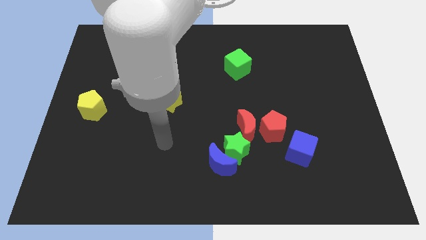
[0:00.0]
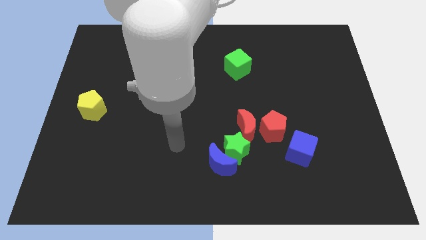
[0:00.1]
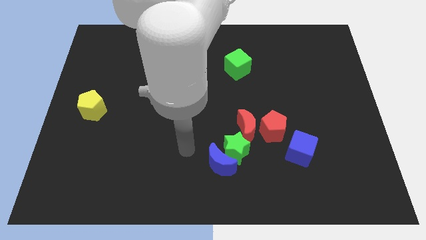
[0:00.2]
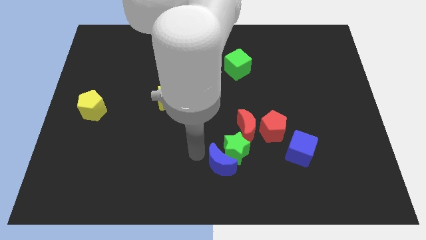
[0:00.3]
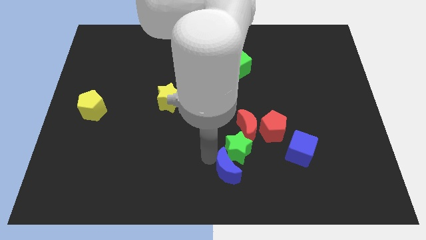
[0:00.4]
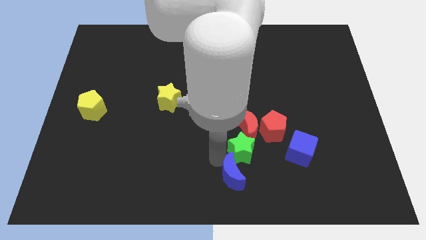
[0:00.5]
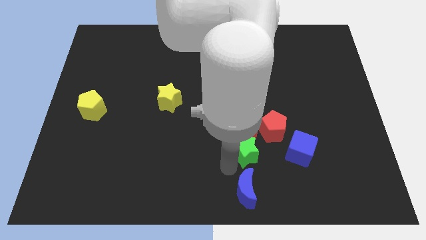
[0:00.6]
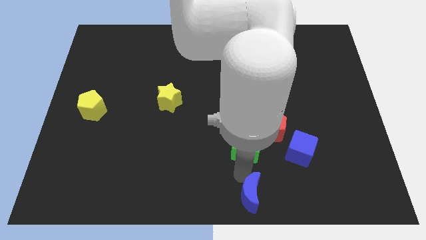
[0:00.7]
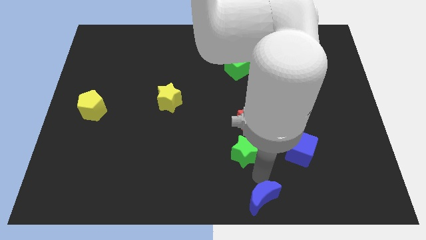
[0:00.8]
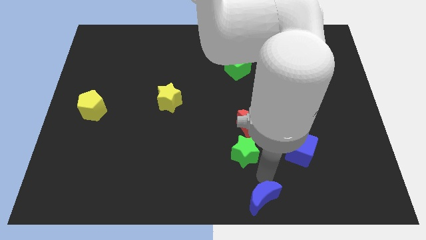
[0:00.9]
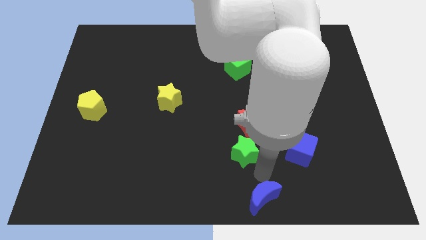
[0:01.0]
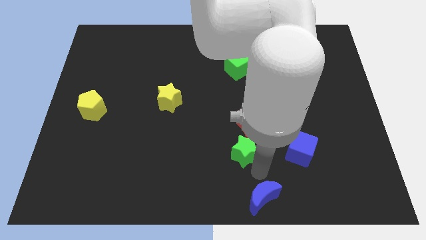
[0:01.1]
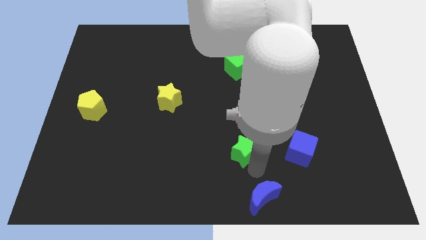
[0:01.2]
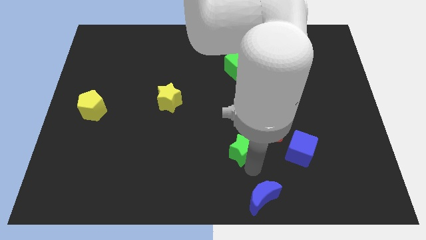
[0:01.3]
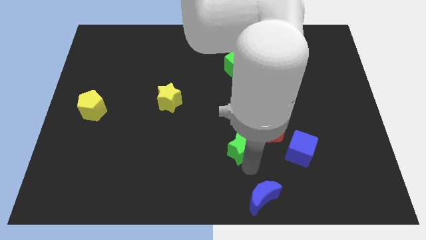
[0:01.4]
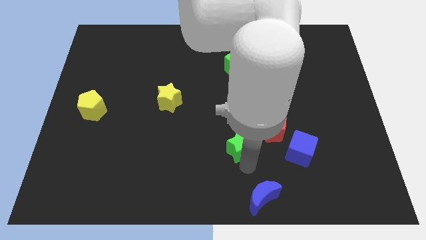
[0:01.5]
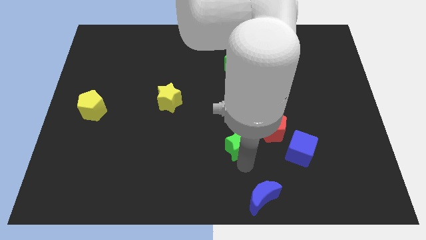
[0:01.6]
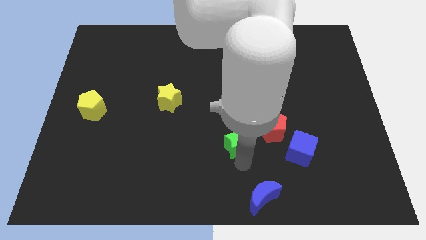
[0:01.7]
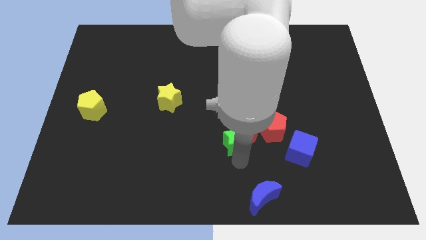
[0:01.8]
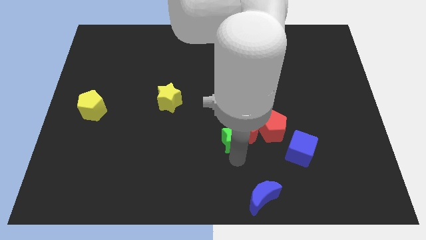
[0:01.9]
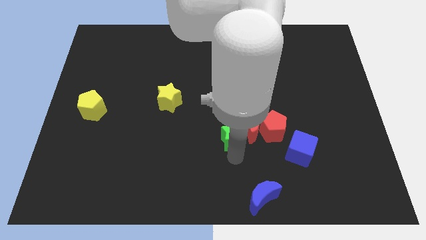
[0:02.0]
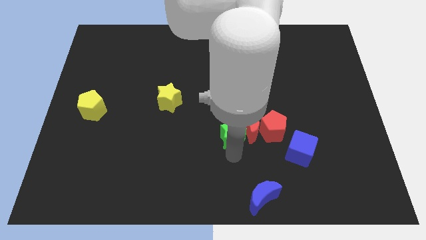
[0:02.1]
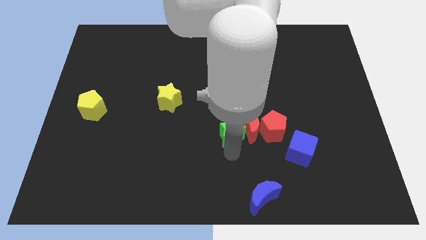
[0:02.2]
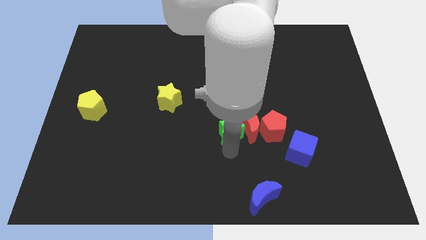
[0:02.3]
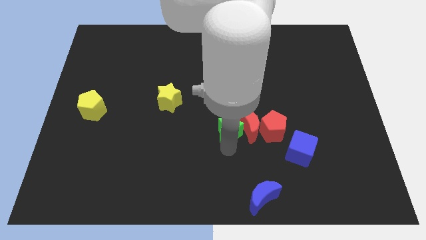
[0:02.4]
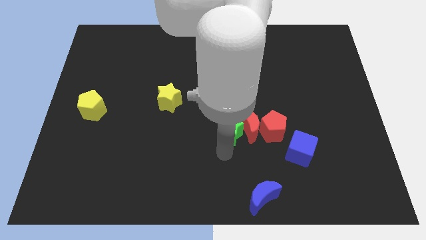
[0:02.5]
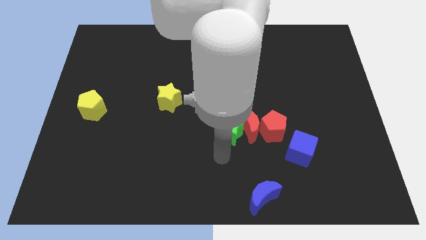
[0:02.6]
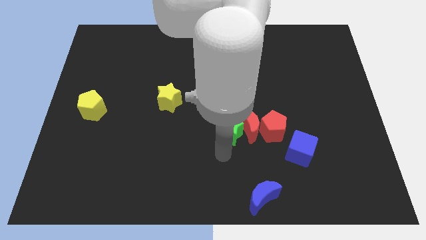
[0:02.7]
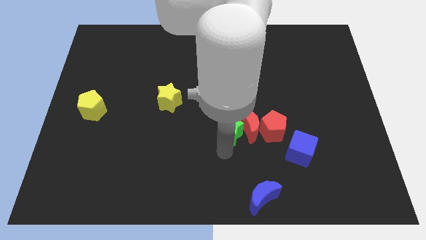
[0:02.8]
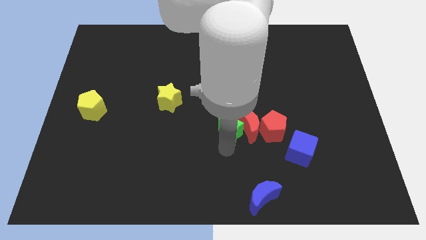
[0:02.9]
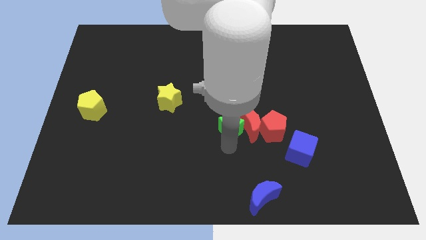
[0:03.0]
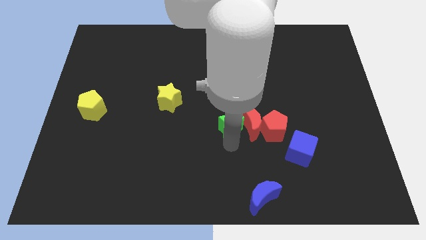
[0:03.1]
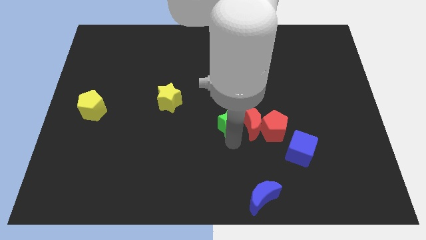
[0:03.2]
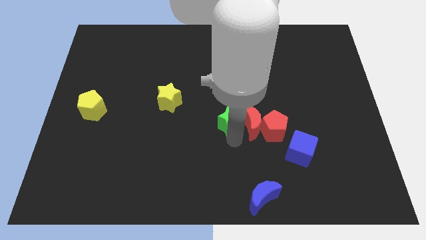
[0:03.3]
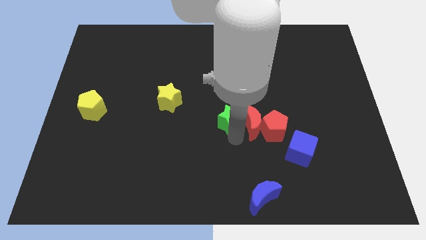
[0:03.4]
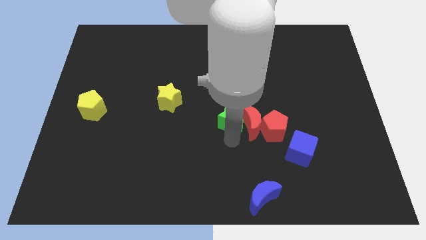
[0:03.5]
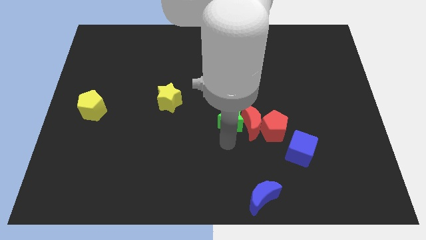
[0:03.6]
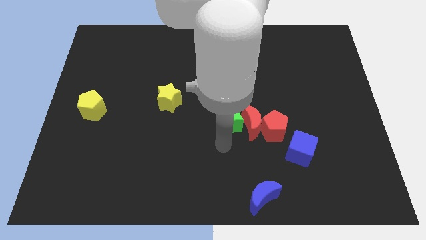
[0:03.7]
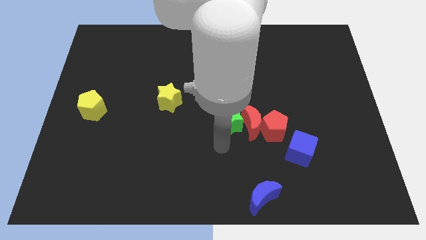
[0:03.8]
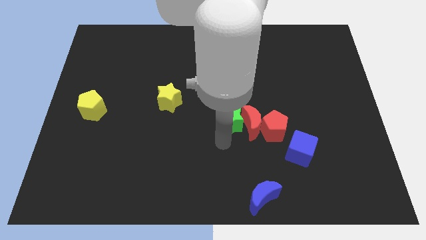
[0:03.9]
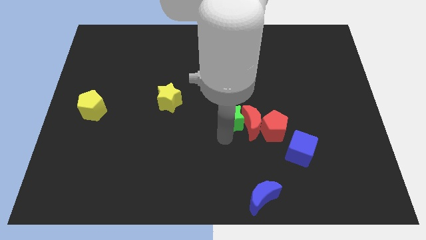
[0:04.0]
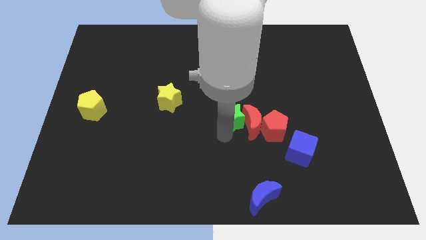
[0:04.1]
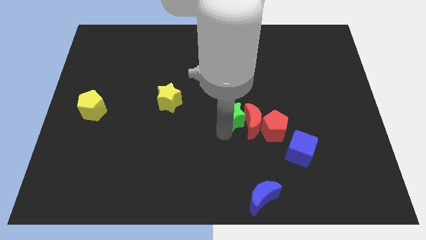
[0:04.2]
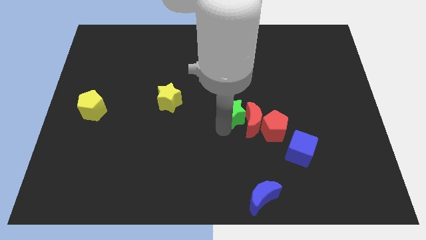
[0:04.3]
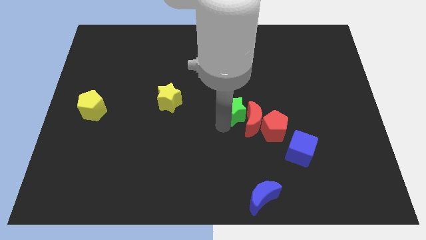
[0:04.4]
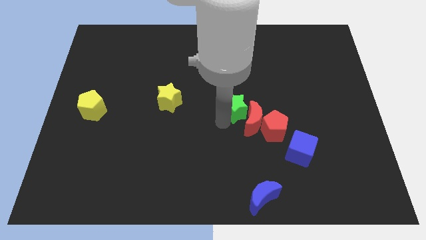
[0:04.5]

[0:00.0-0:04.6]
move the green star above the red moon

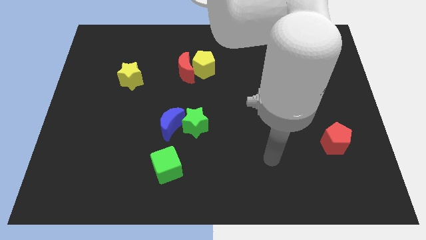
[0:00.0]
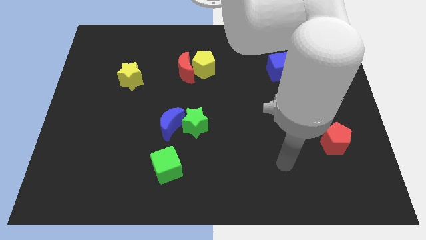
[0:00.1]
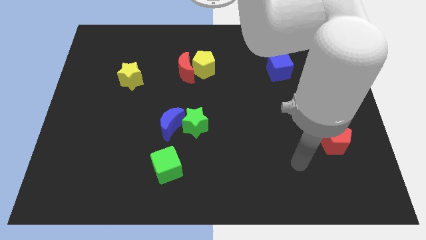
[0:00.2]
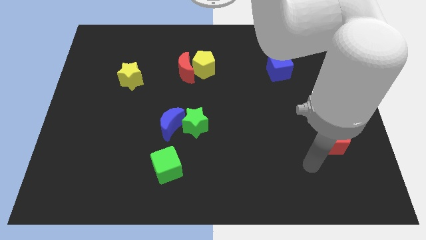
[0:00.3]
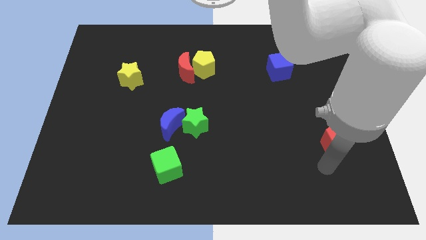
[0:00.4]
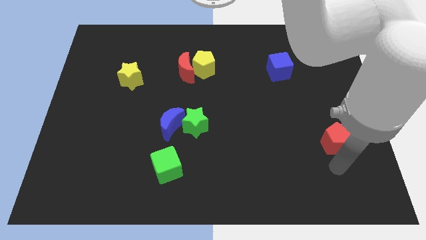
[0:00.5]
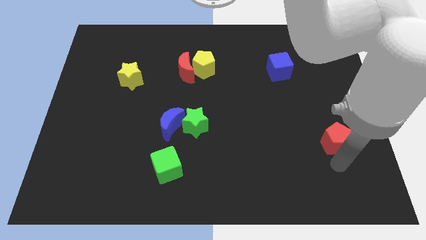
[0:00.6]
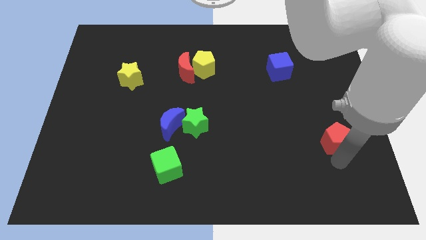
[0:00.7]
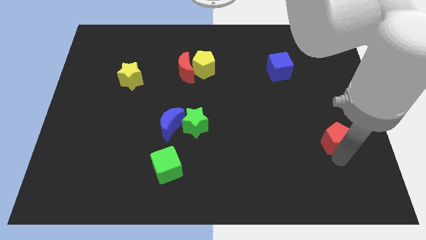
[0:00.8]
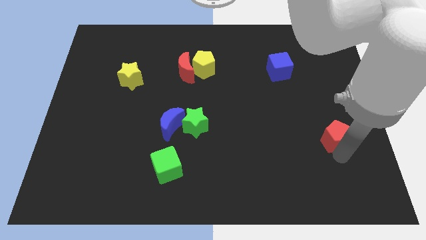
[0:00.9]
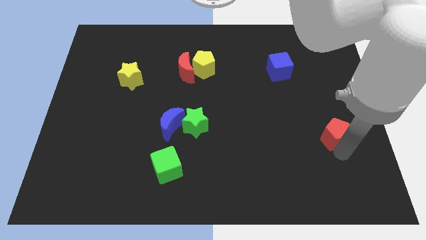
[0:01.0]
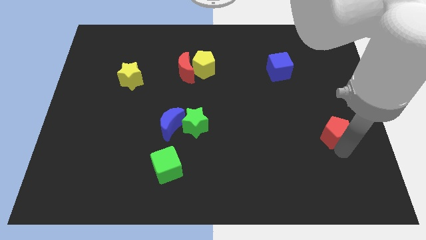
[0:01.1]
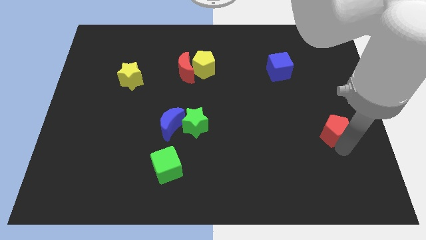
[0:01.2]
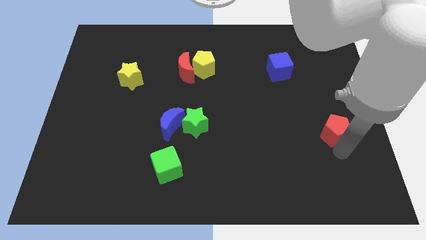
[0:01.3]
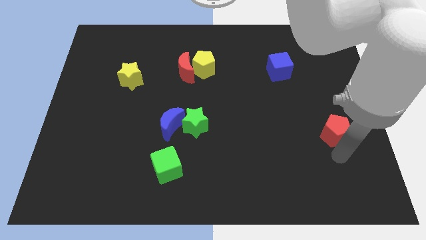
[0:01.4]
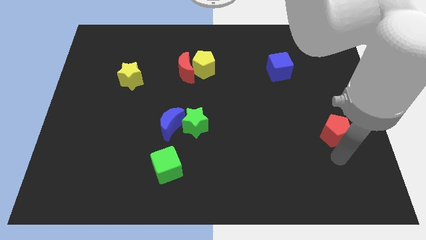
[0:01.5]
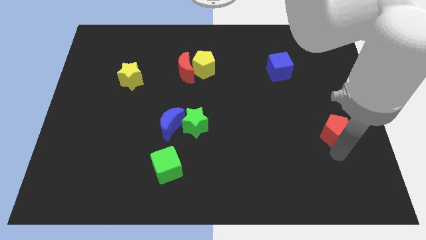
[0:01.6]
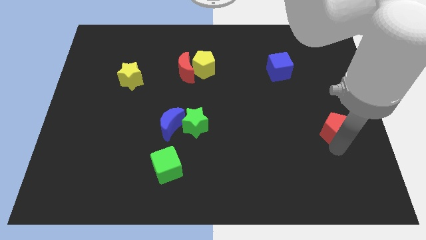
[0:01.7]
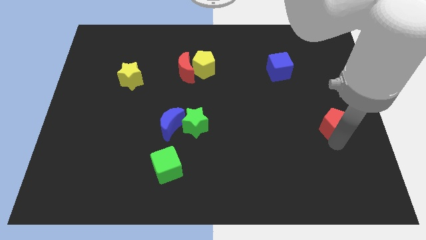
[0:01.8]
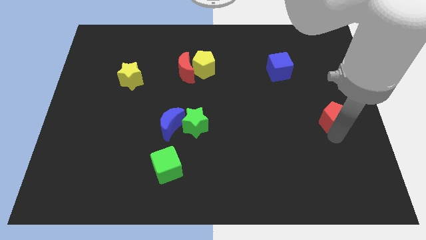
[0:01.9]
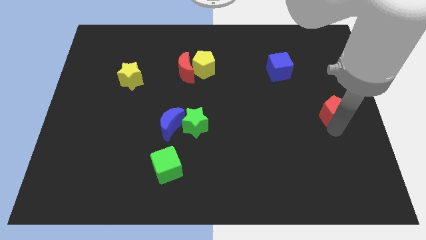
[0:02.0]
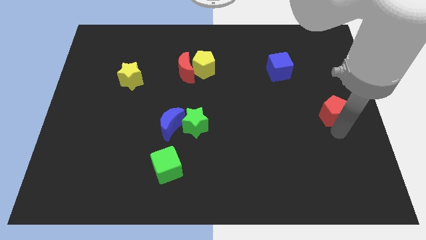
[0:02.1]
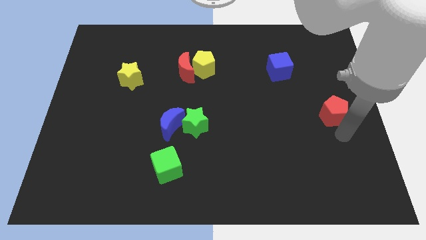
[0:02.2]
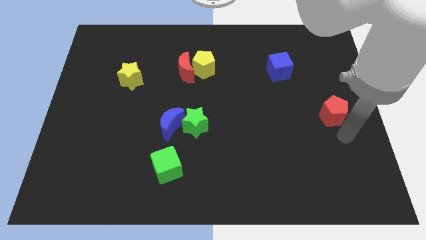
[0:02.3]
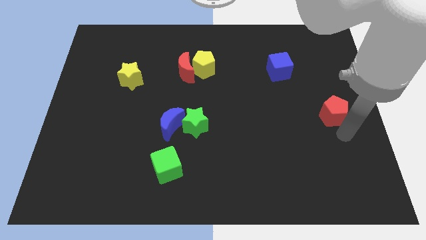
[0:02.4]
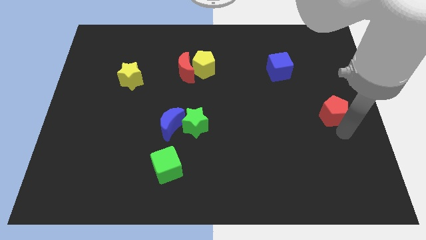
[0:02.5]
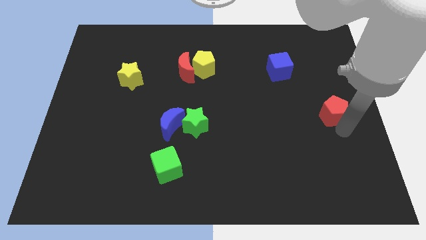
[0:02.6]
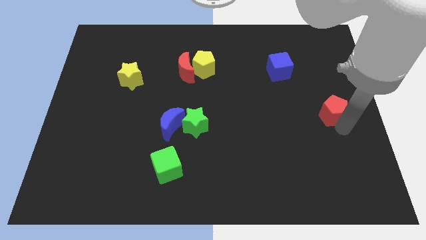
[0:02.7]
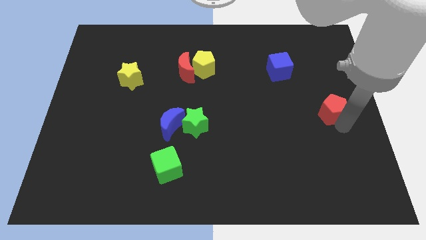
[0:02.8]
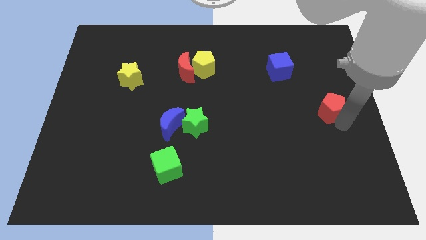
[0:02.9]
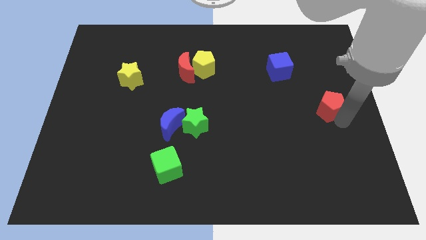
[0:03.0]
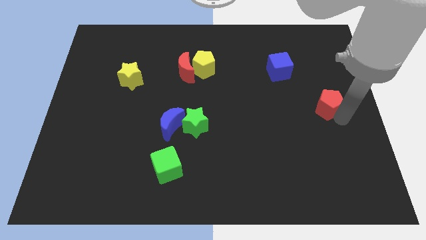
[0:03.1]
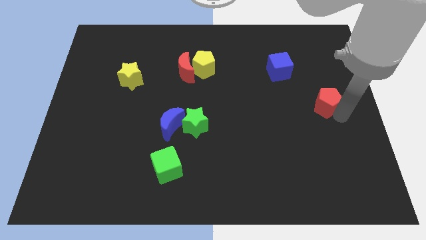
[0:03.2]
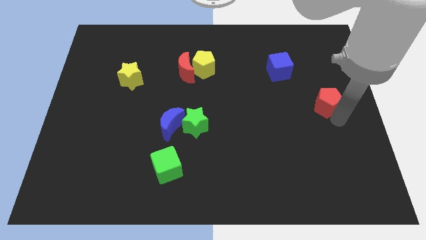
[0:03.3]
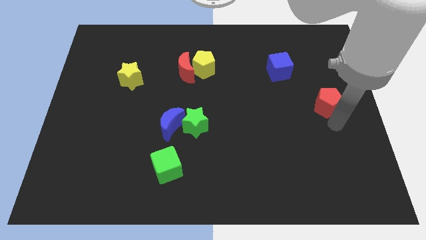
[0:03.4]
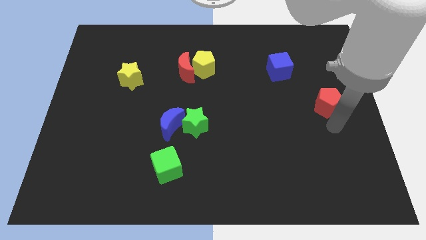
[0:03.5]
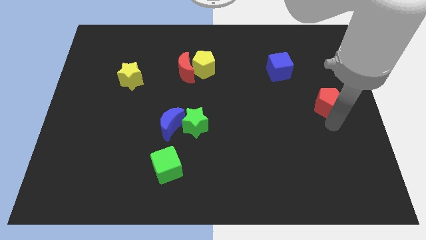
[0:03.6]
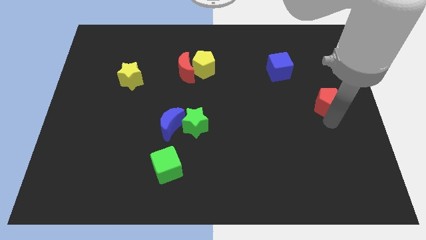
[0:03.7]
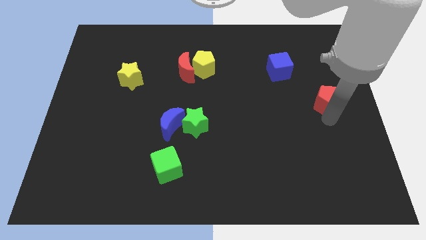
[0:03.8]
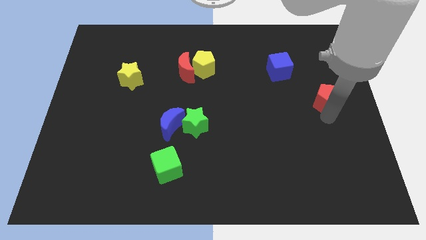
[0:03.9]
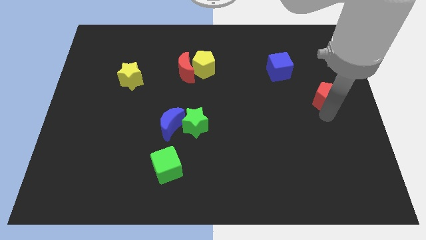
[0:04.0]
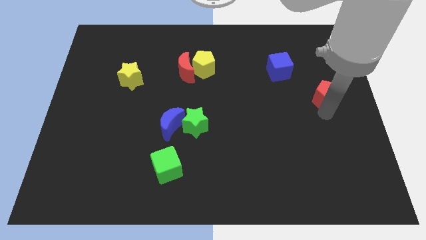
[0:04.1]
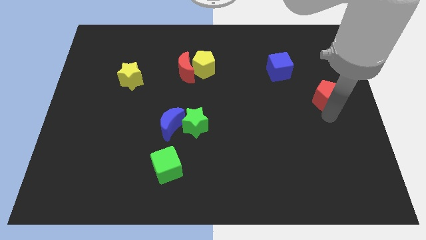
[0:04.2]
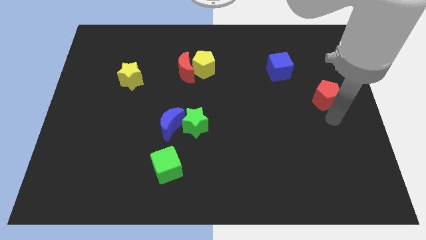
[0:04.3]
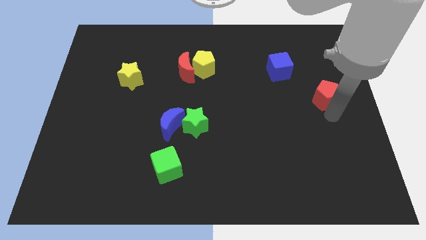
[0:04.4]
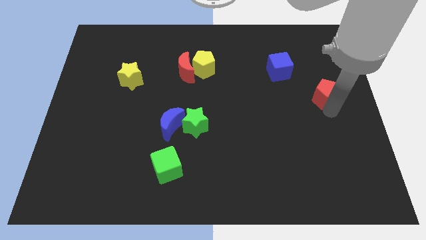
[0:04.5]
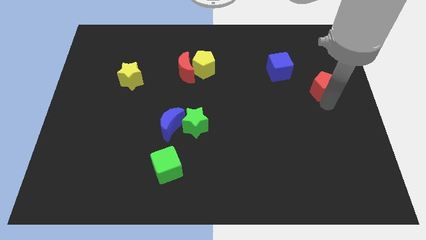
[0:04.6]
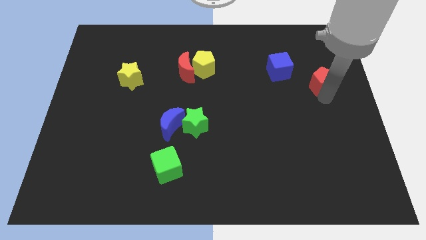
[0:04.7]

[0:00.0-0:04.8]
push the red pentagon just right of the blue cube
